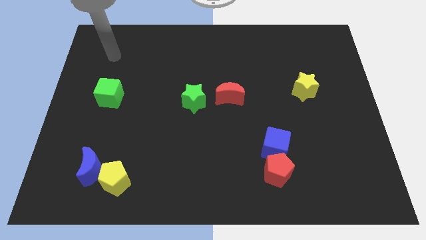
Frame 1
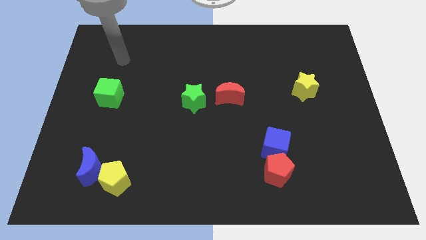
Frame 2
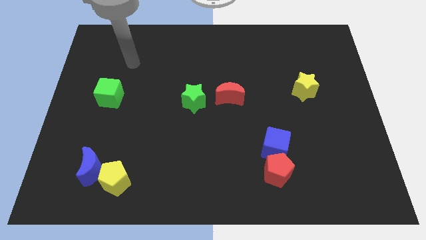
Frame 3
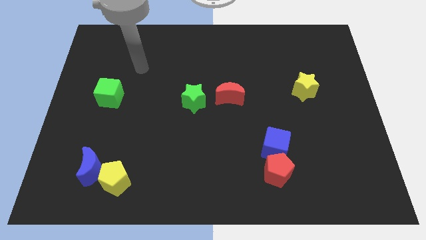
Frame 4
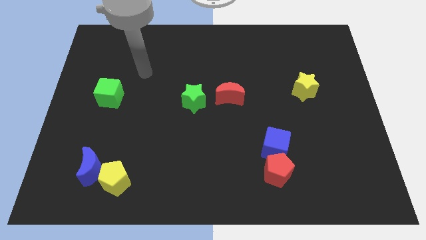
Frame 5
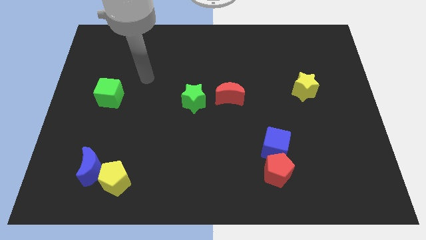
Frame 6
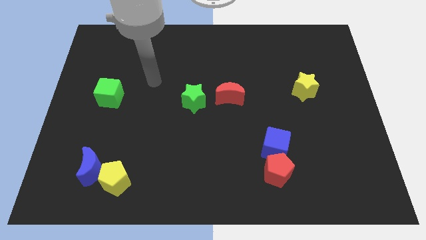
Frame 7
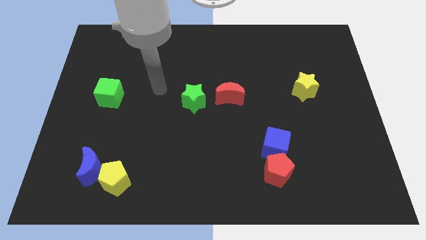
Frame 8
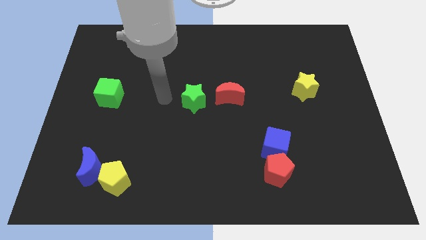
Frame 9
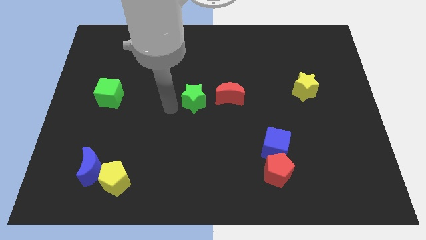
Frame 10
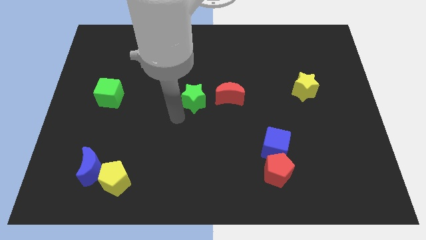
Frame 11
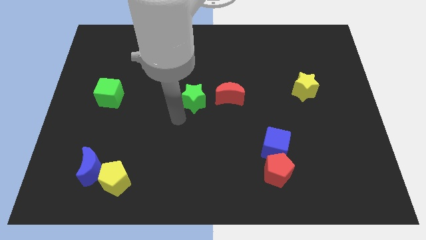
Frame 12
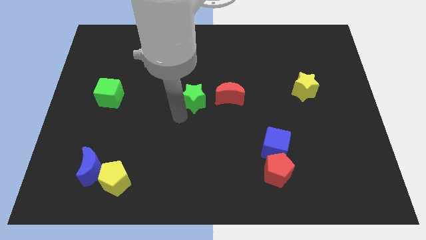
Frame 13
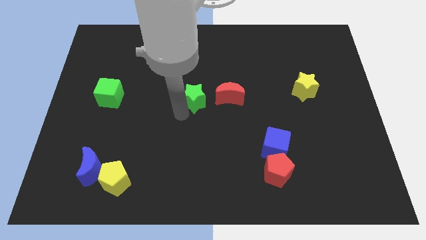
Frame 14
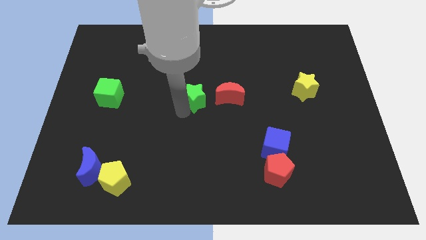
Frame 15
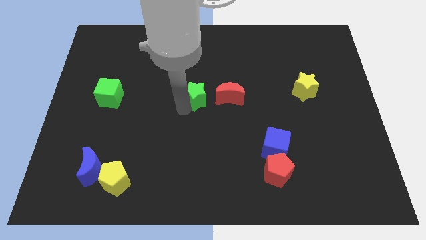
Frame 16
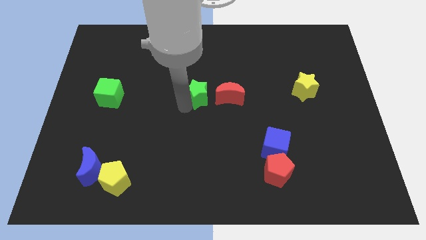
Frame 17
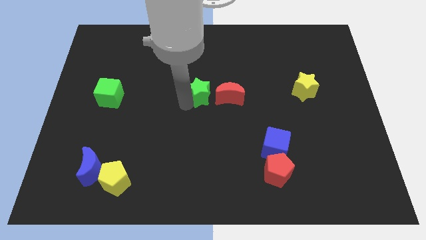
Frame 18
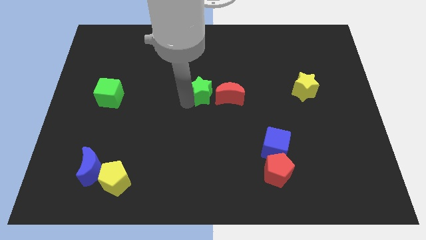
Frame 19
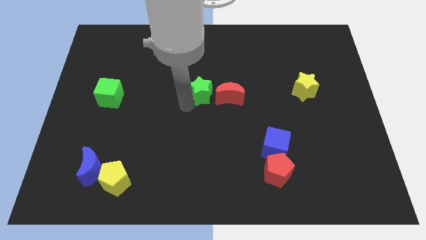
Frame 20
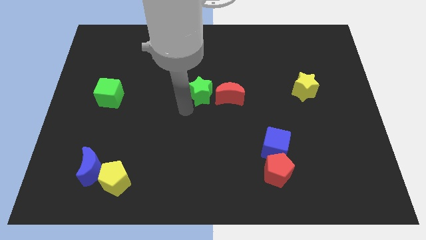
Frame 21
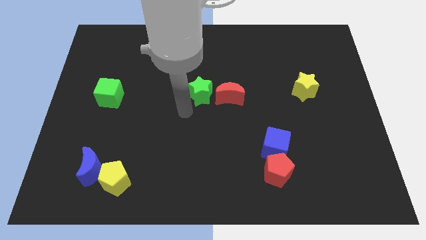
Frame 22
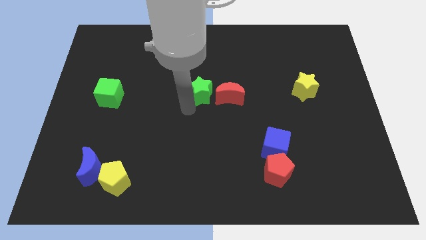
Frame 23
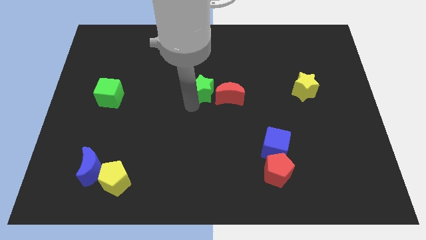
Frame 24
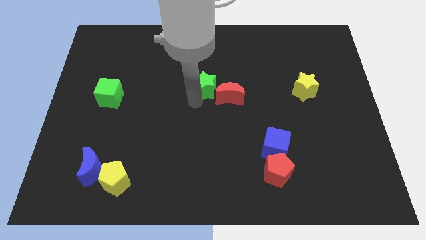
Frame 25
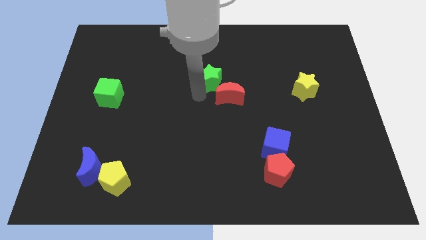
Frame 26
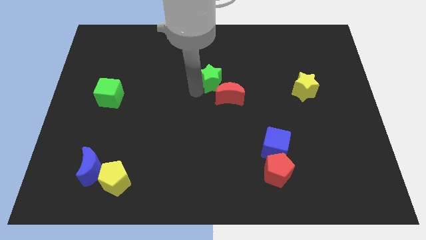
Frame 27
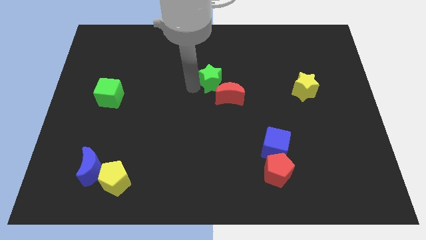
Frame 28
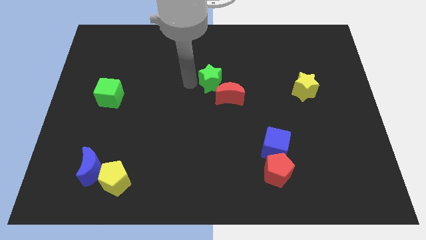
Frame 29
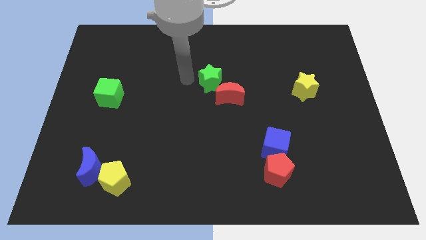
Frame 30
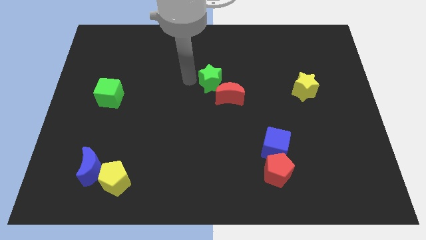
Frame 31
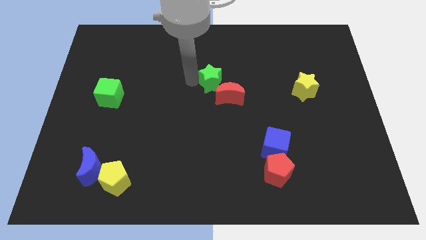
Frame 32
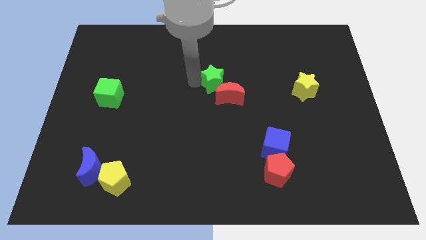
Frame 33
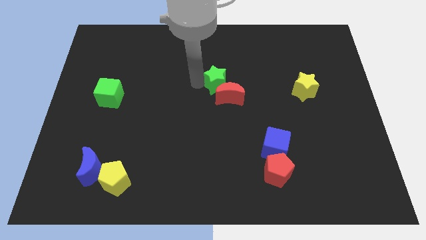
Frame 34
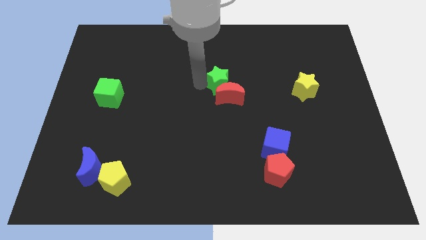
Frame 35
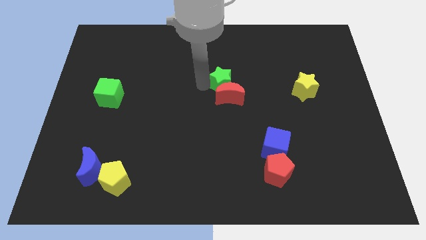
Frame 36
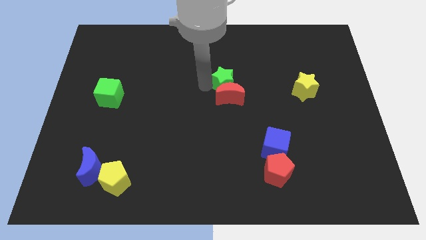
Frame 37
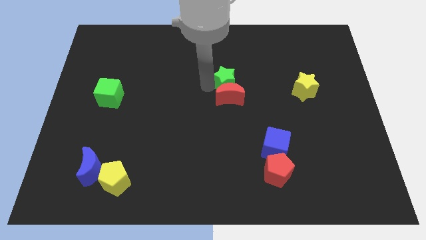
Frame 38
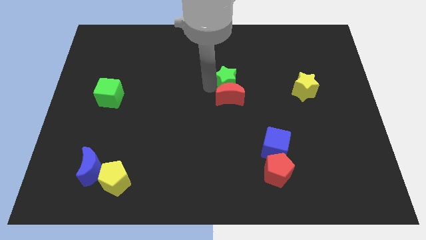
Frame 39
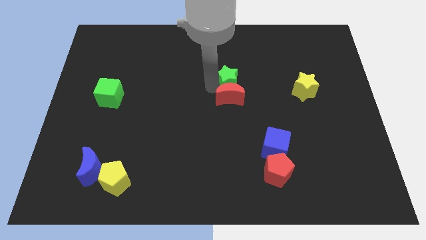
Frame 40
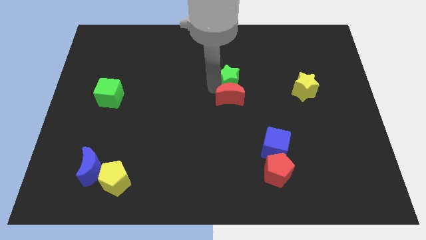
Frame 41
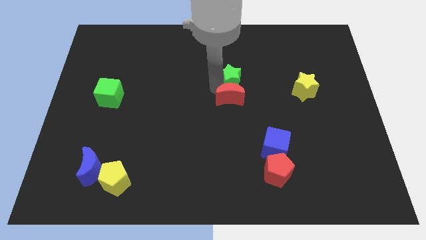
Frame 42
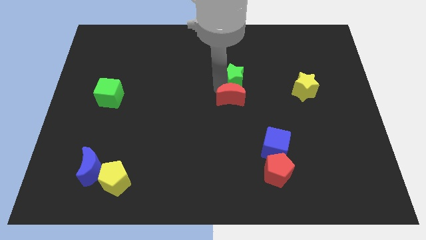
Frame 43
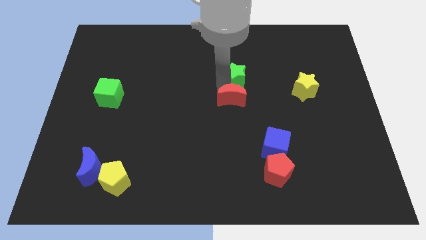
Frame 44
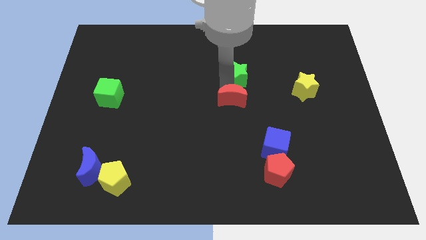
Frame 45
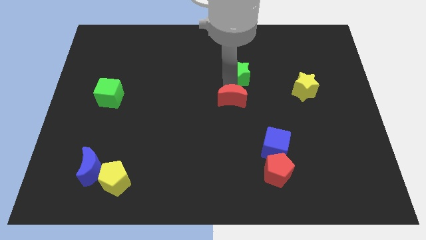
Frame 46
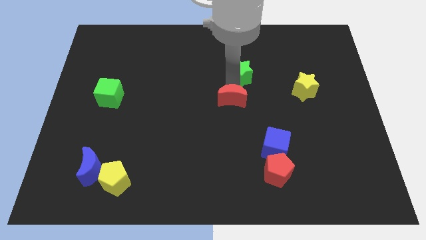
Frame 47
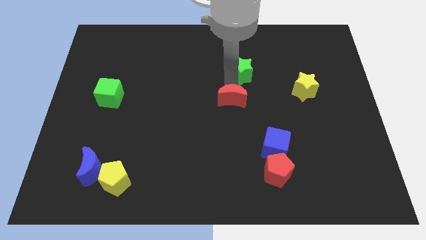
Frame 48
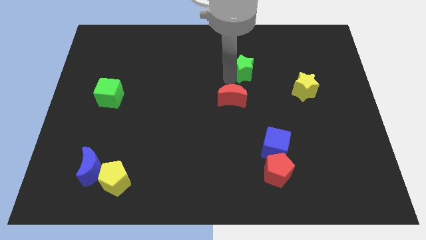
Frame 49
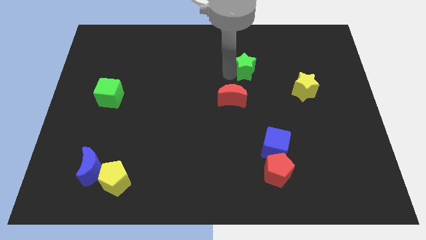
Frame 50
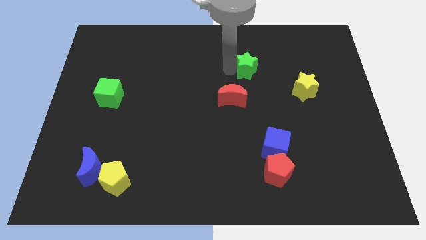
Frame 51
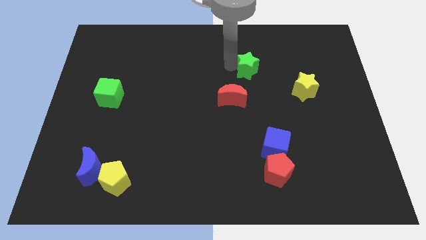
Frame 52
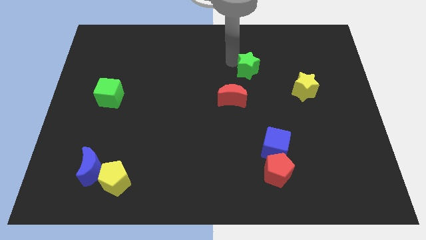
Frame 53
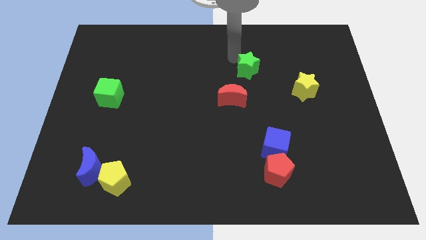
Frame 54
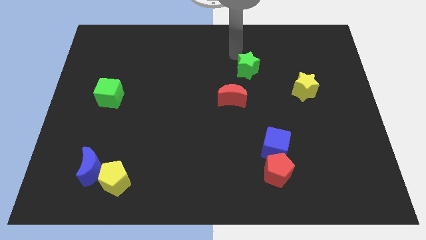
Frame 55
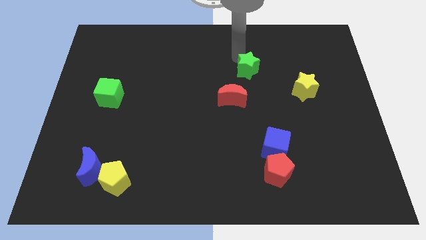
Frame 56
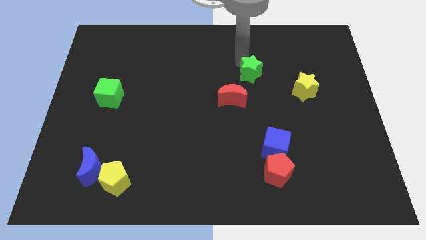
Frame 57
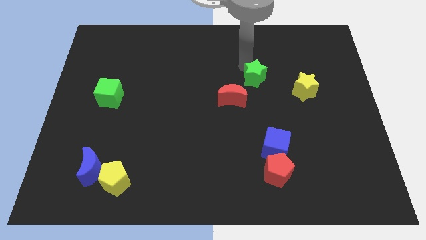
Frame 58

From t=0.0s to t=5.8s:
put the green star just left of the yellow star

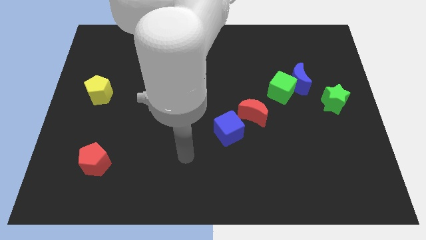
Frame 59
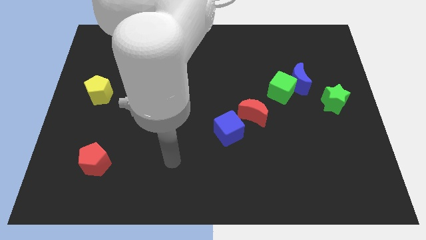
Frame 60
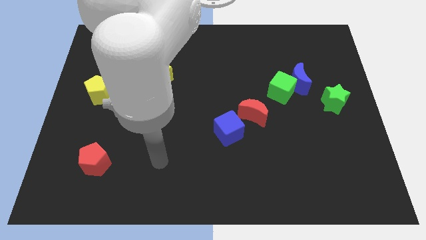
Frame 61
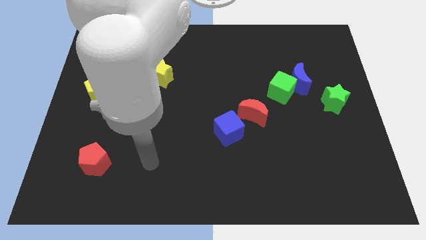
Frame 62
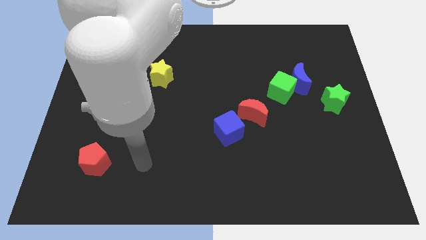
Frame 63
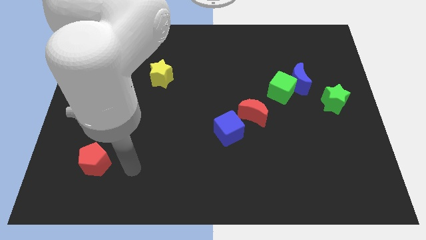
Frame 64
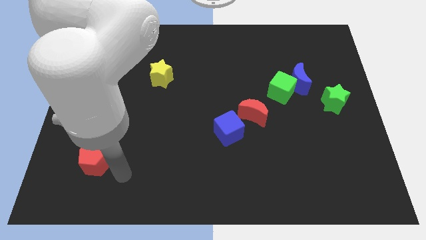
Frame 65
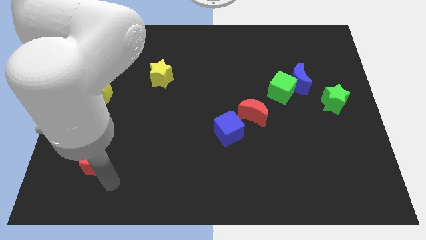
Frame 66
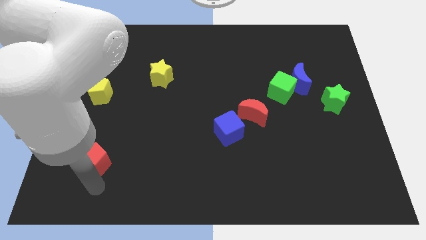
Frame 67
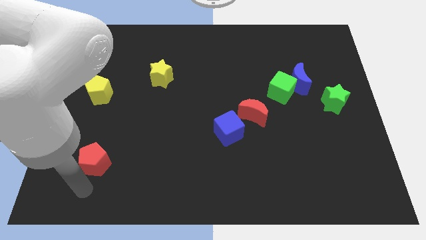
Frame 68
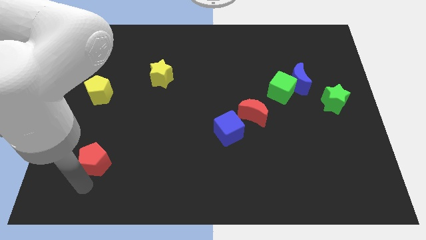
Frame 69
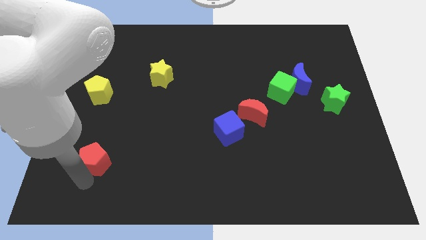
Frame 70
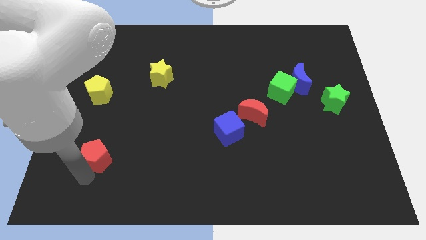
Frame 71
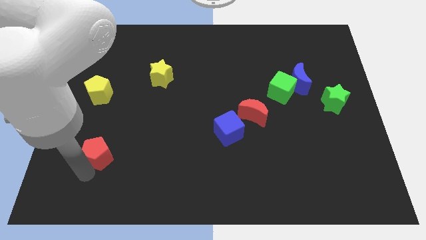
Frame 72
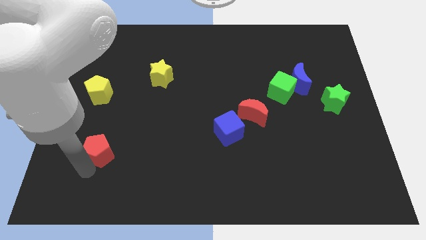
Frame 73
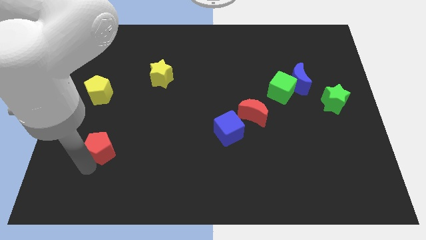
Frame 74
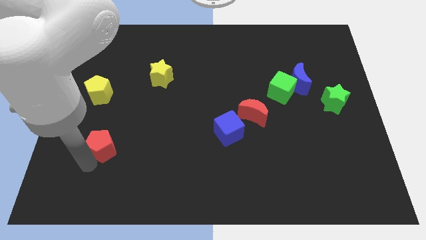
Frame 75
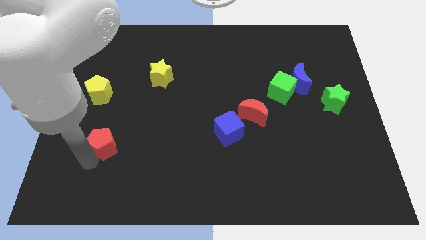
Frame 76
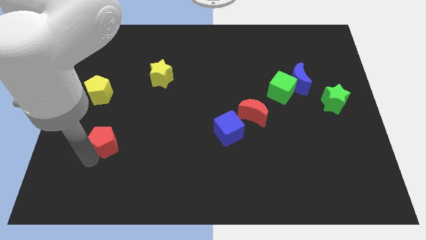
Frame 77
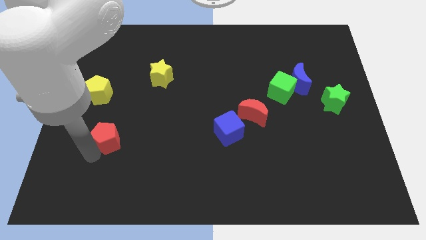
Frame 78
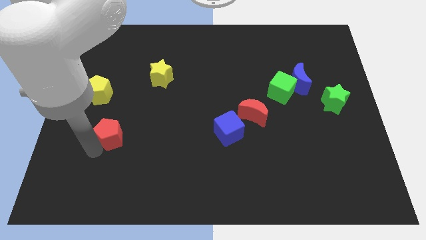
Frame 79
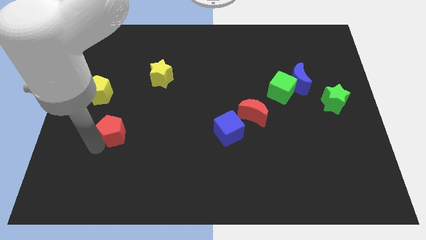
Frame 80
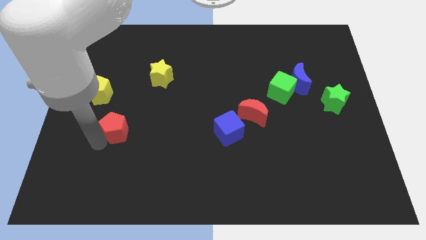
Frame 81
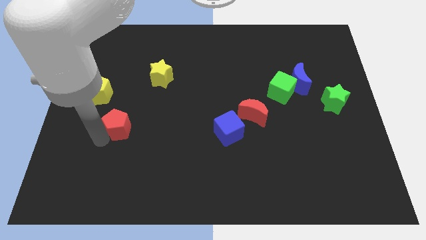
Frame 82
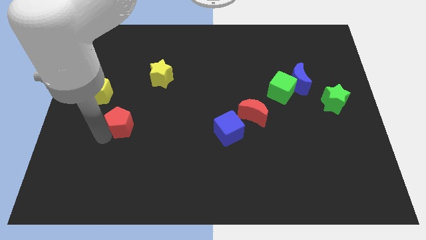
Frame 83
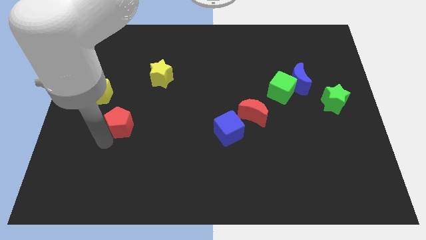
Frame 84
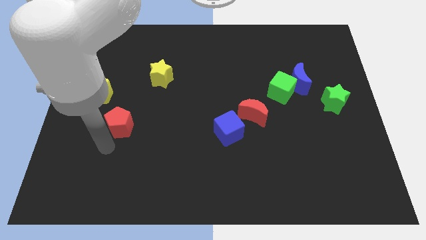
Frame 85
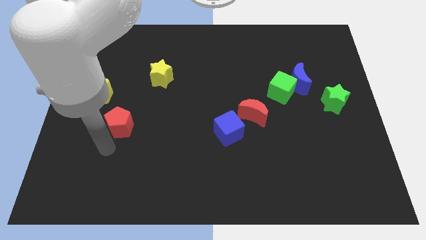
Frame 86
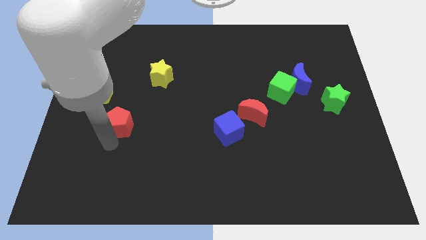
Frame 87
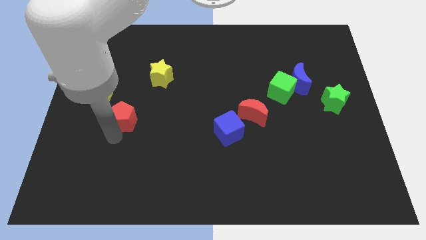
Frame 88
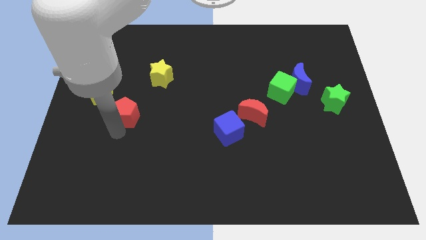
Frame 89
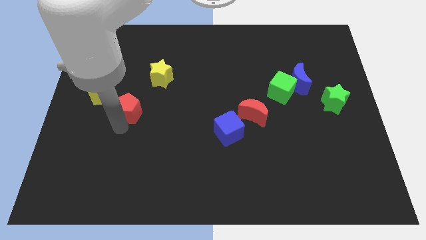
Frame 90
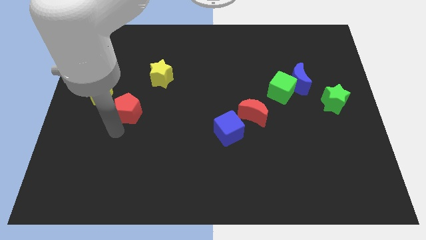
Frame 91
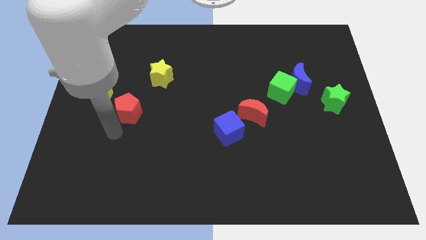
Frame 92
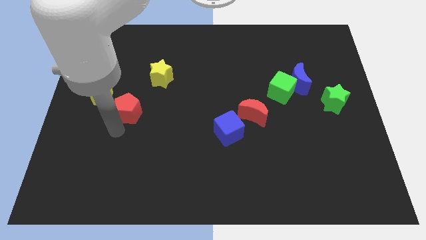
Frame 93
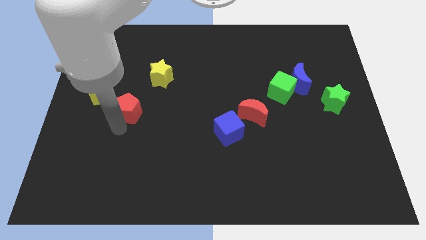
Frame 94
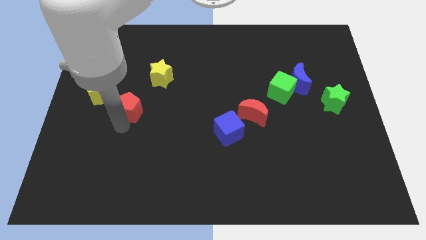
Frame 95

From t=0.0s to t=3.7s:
move the red pentagon to the right of the yellow pentagon
